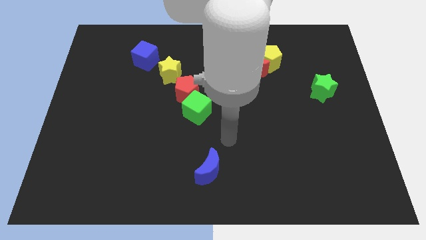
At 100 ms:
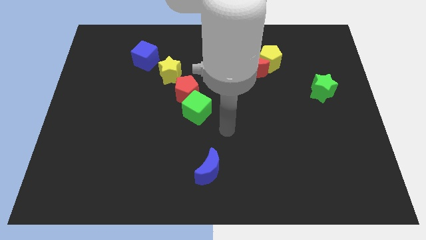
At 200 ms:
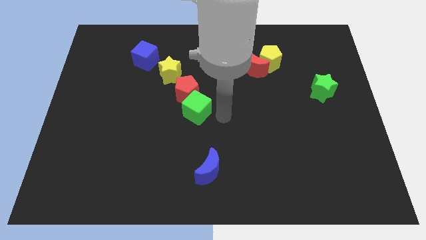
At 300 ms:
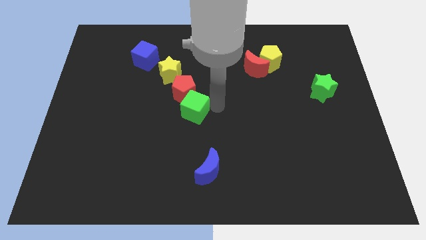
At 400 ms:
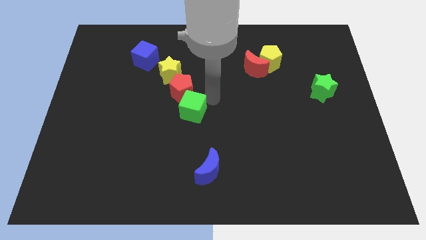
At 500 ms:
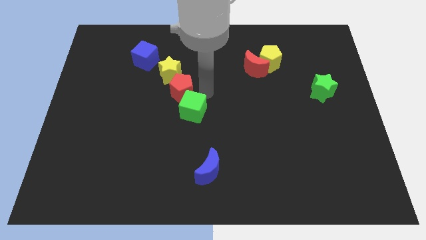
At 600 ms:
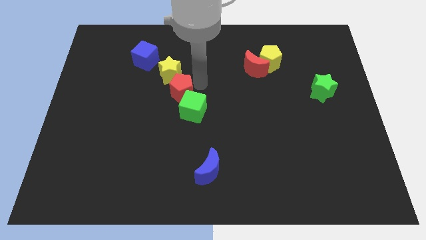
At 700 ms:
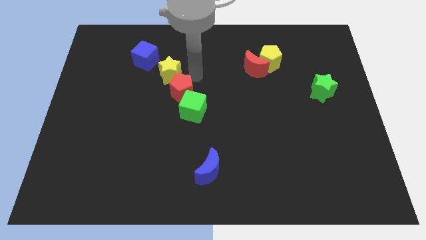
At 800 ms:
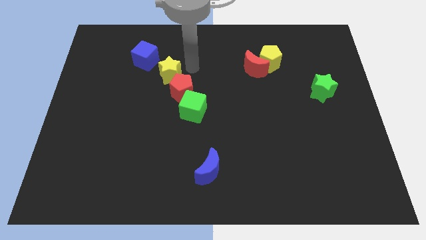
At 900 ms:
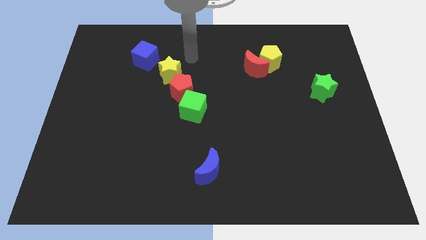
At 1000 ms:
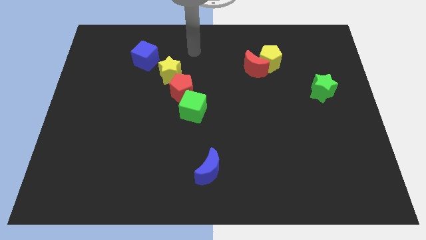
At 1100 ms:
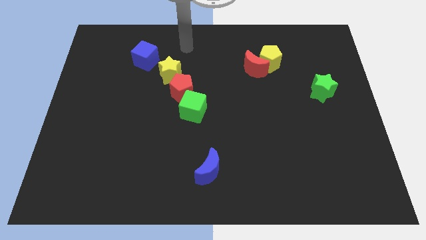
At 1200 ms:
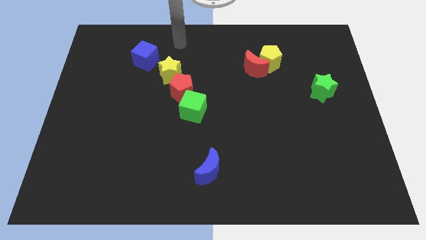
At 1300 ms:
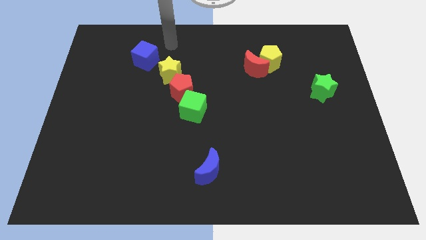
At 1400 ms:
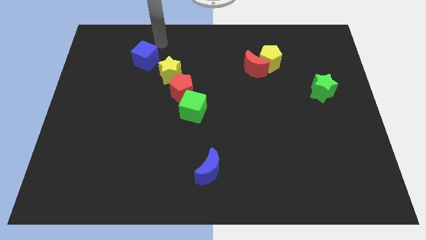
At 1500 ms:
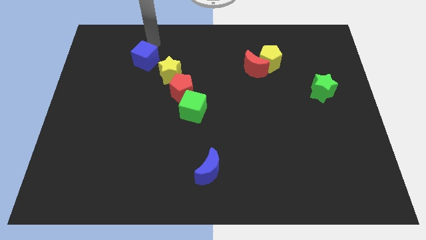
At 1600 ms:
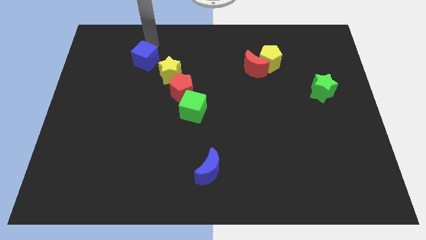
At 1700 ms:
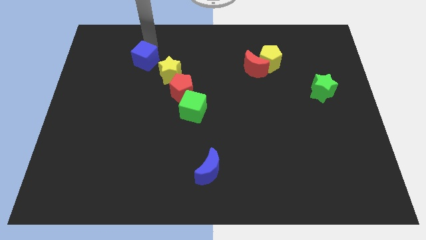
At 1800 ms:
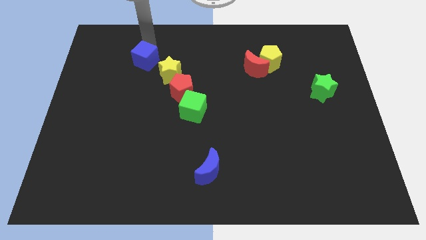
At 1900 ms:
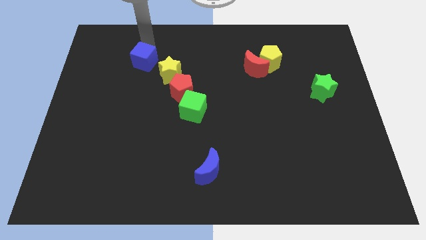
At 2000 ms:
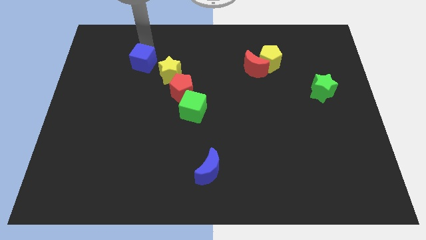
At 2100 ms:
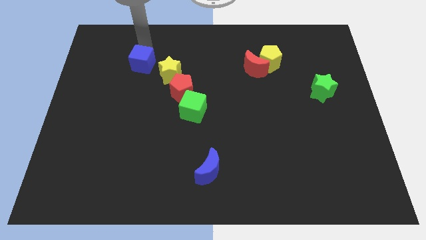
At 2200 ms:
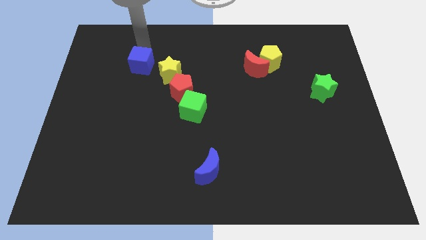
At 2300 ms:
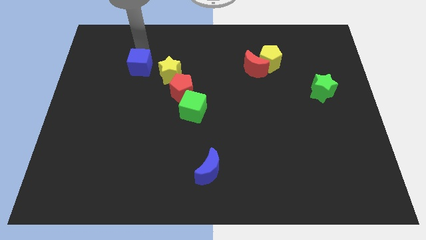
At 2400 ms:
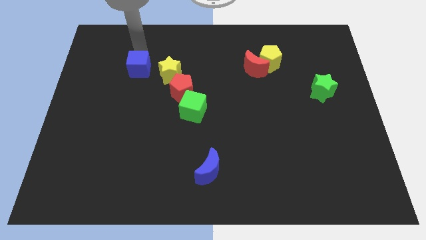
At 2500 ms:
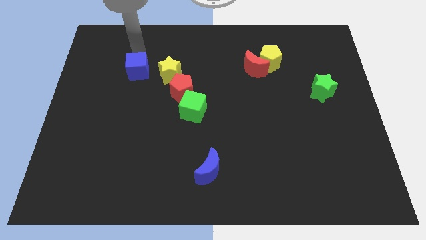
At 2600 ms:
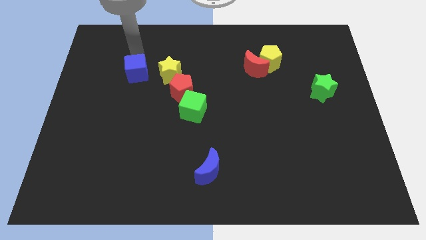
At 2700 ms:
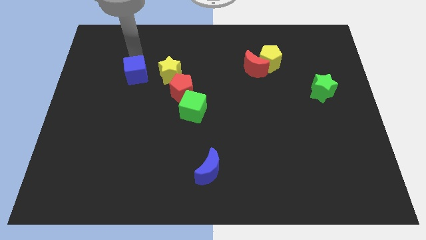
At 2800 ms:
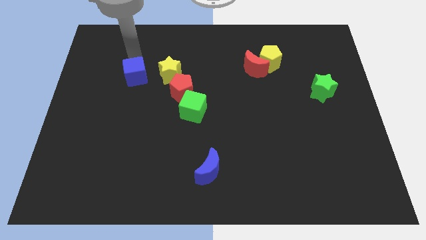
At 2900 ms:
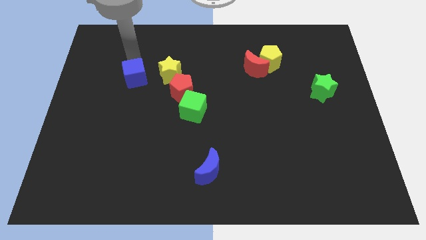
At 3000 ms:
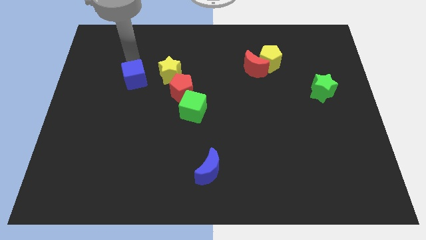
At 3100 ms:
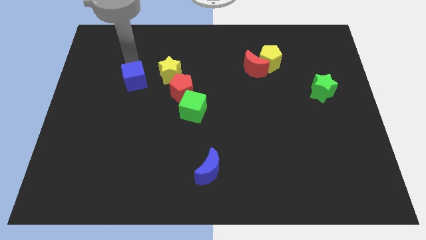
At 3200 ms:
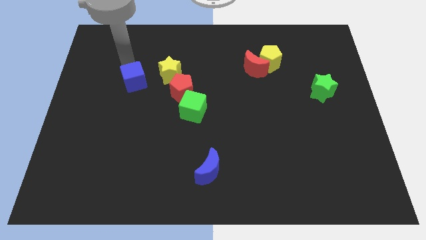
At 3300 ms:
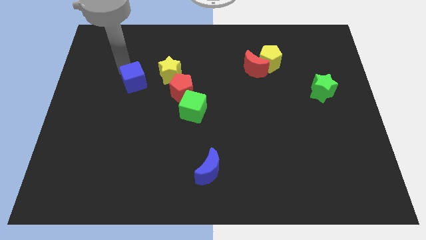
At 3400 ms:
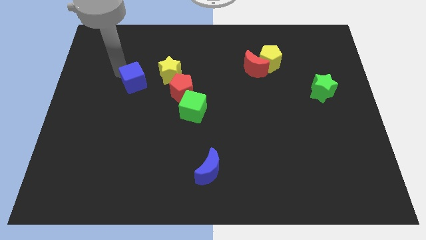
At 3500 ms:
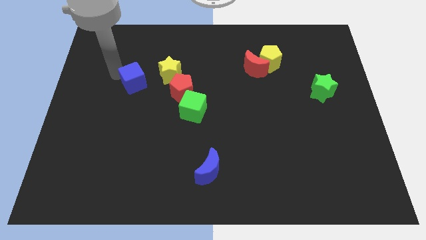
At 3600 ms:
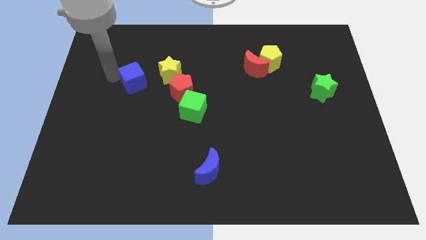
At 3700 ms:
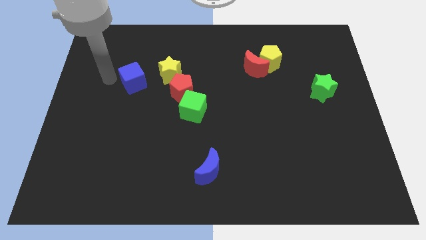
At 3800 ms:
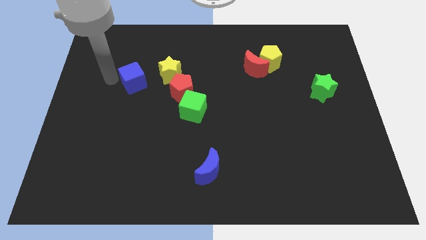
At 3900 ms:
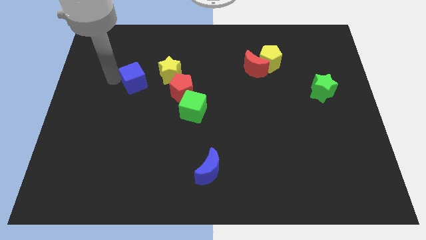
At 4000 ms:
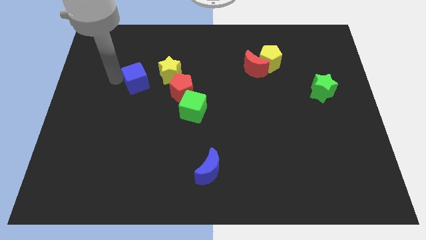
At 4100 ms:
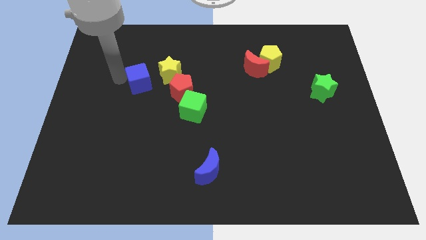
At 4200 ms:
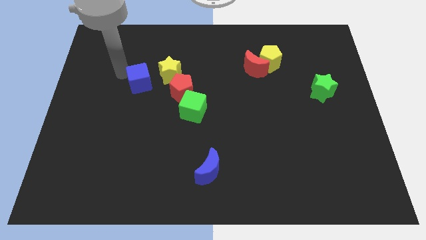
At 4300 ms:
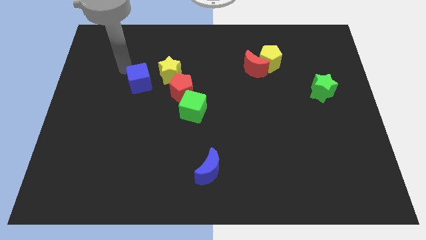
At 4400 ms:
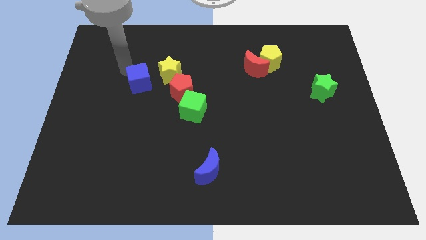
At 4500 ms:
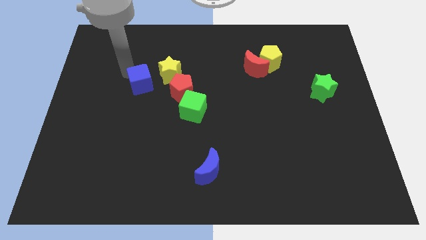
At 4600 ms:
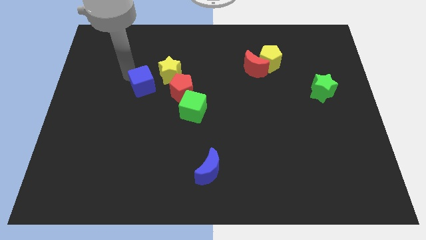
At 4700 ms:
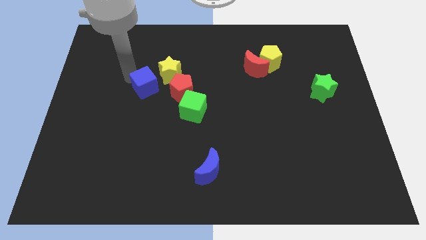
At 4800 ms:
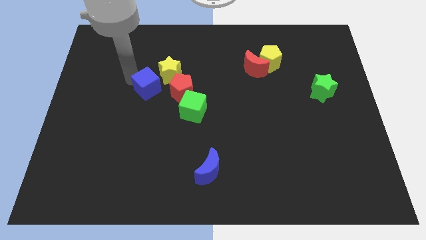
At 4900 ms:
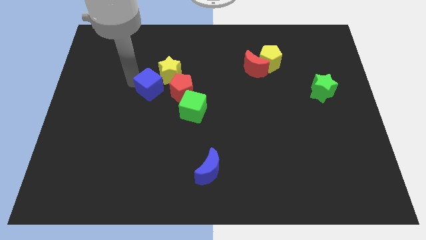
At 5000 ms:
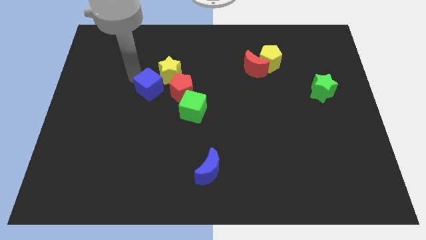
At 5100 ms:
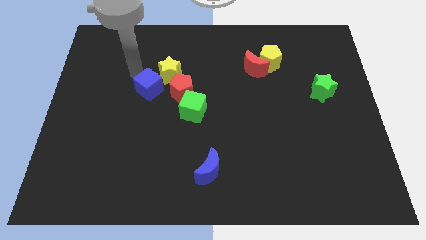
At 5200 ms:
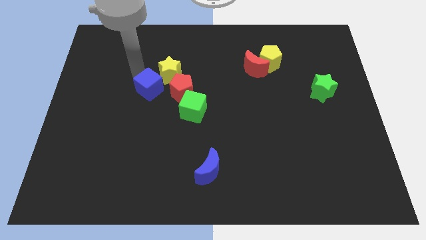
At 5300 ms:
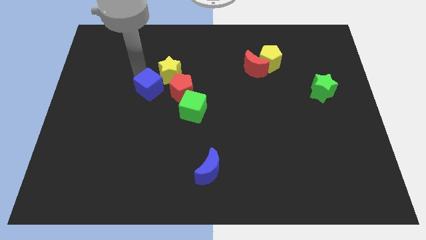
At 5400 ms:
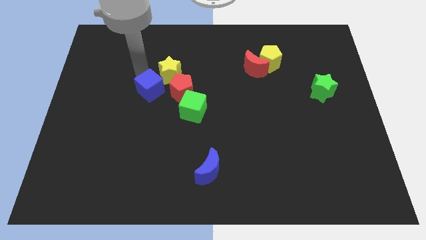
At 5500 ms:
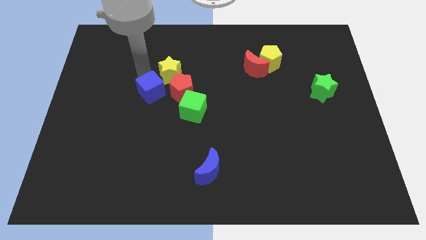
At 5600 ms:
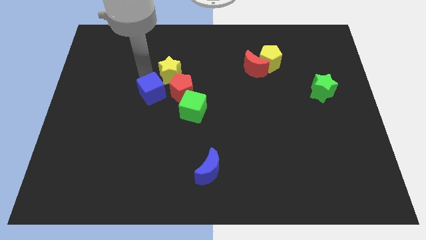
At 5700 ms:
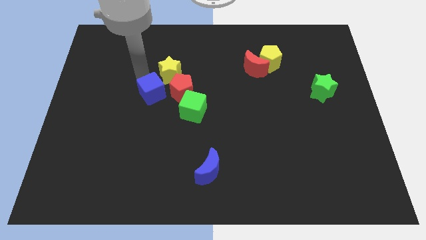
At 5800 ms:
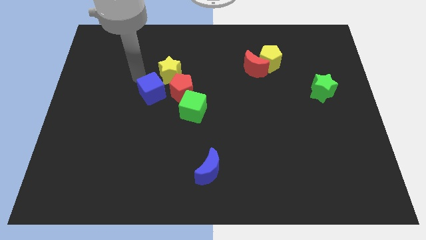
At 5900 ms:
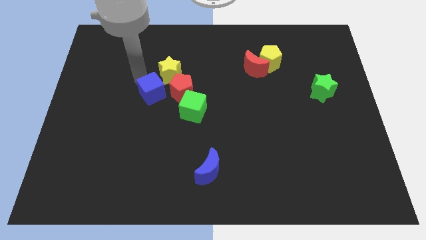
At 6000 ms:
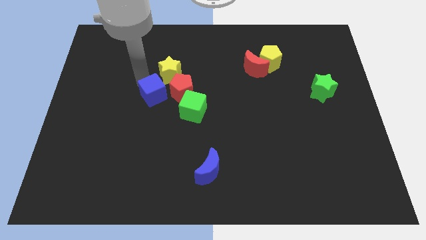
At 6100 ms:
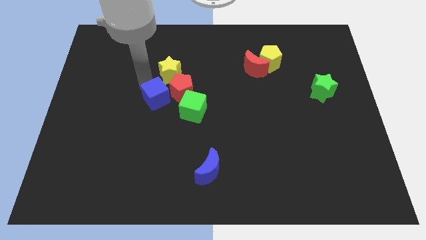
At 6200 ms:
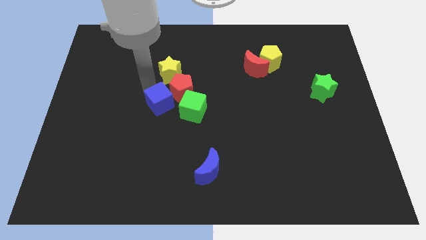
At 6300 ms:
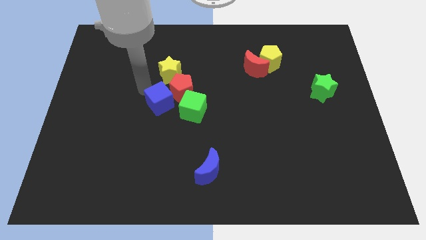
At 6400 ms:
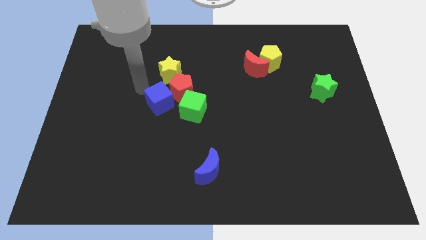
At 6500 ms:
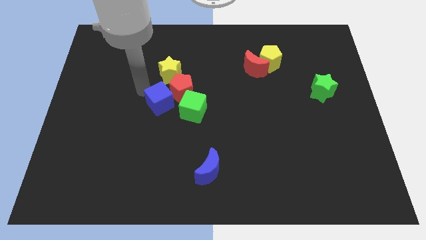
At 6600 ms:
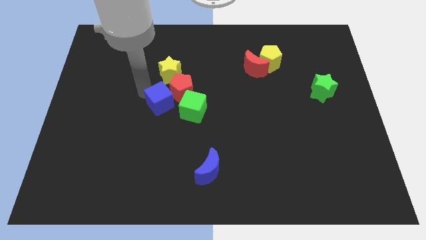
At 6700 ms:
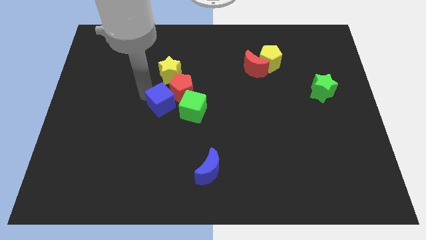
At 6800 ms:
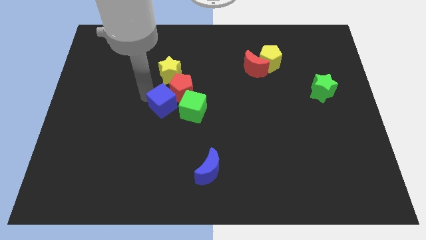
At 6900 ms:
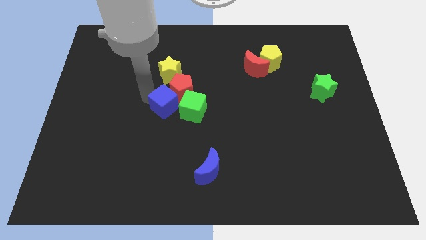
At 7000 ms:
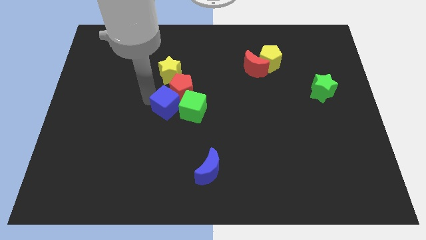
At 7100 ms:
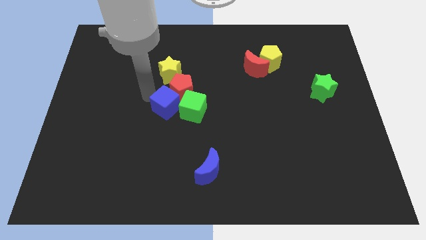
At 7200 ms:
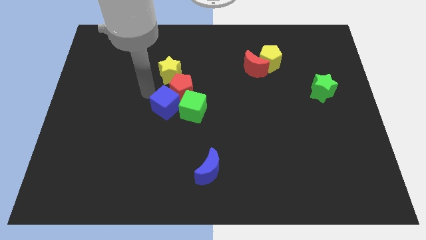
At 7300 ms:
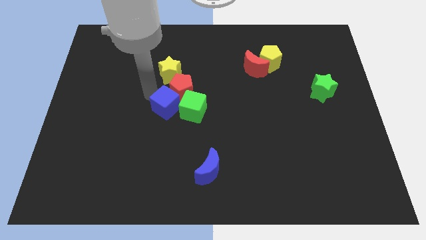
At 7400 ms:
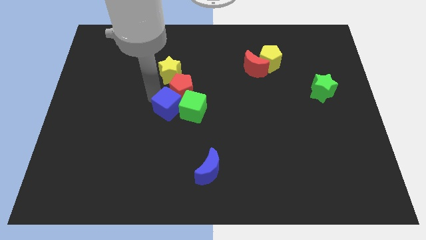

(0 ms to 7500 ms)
push the blue cube to the green cube
